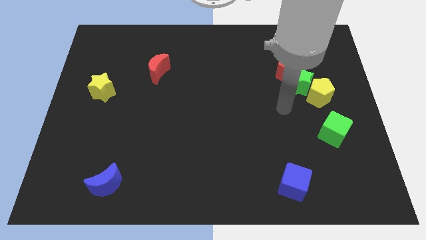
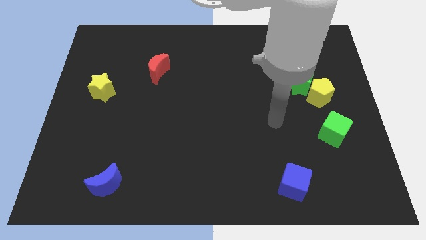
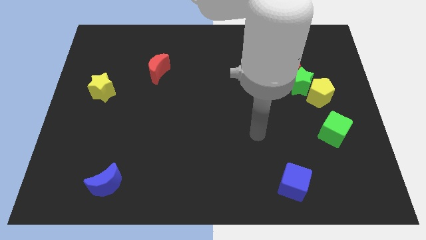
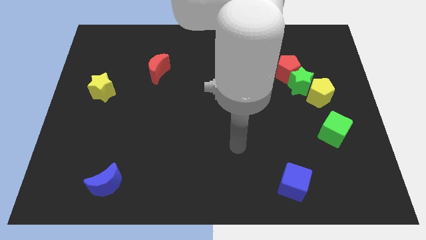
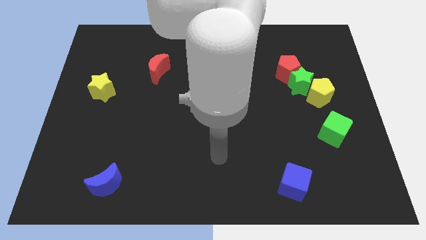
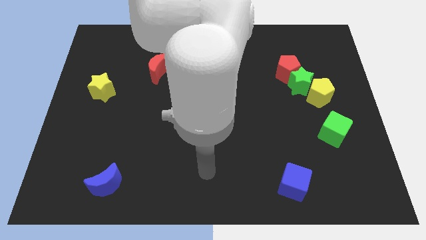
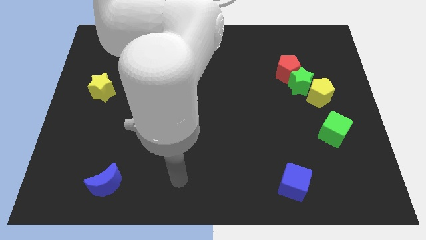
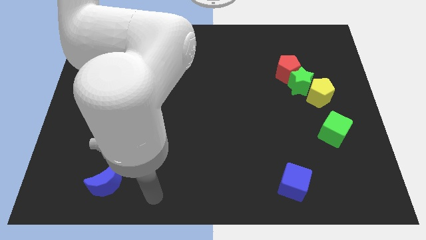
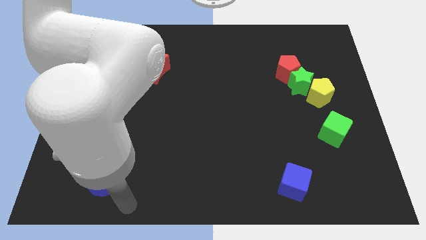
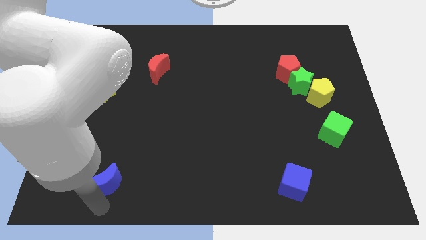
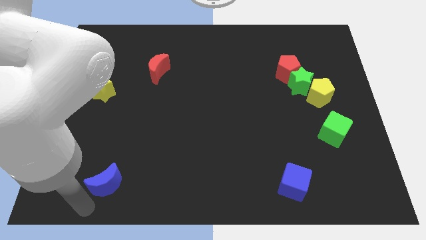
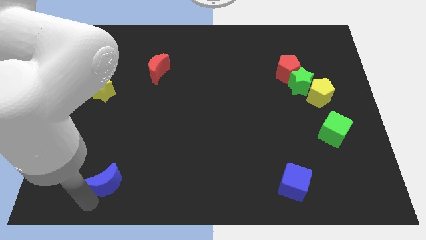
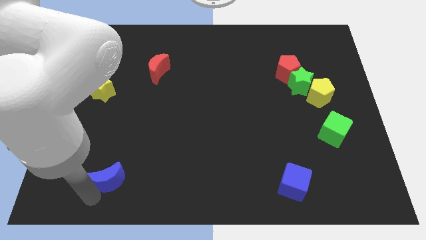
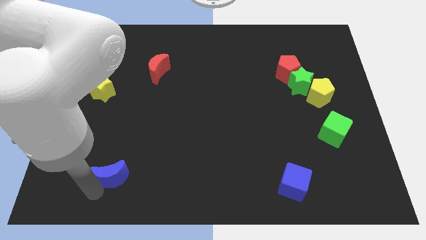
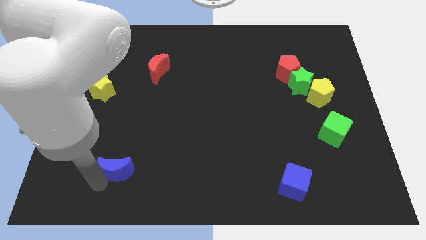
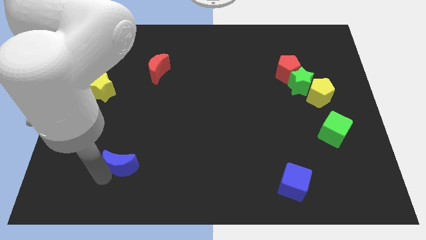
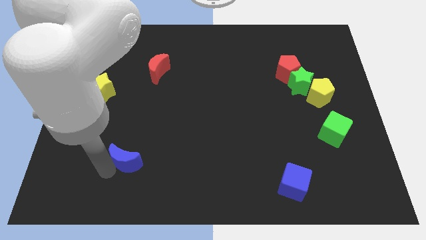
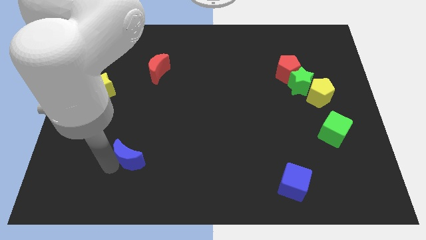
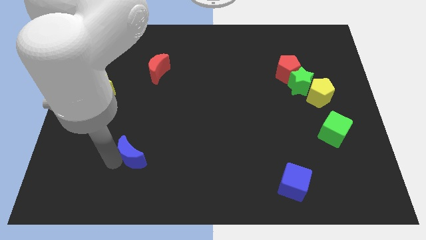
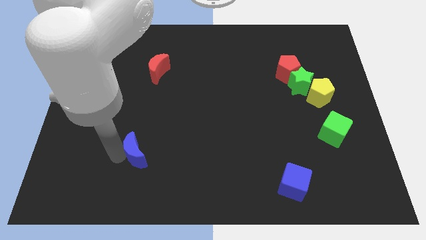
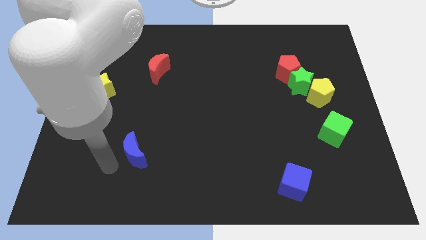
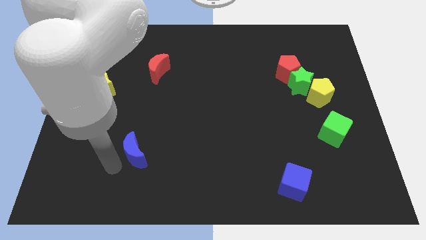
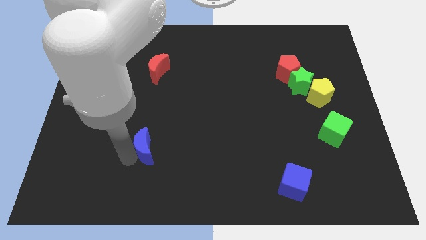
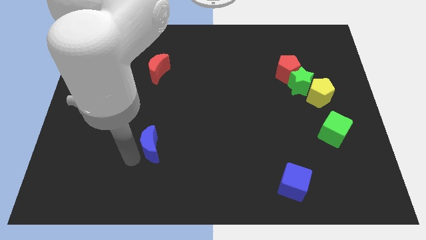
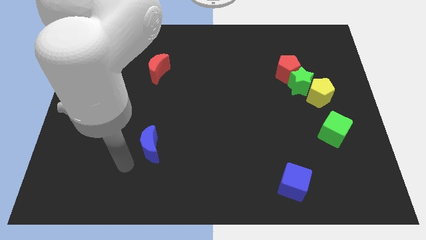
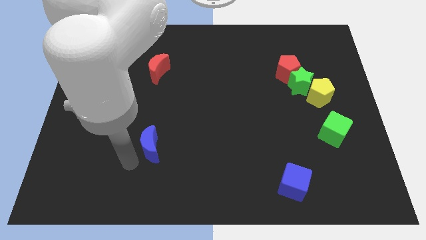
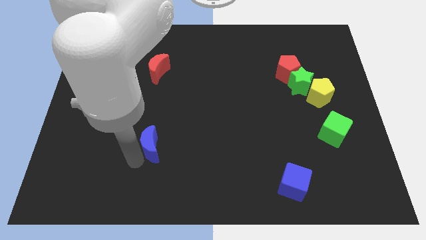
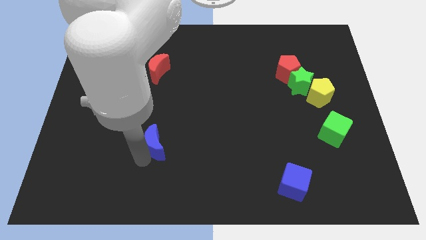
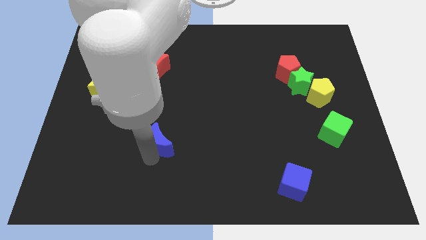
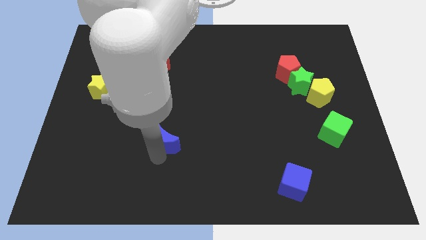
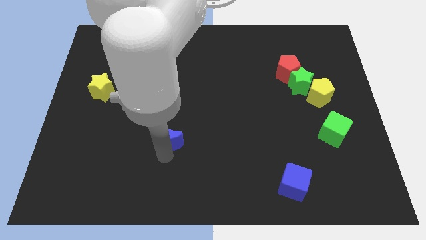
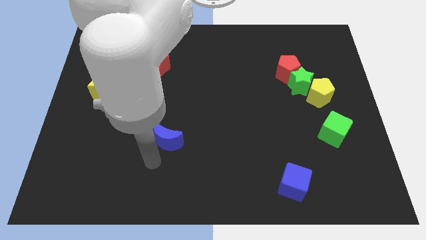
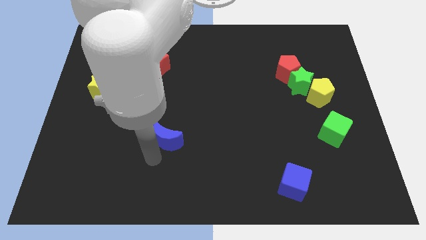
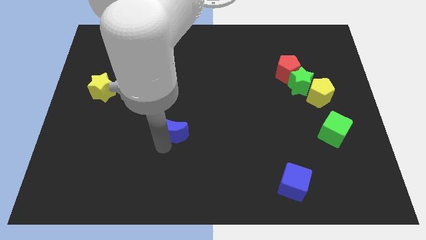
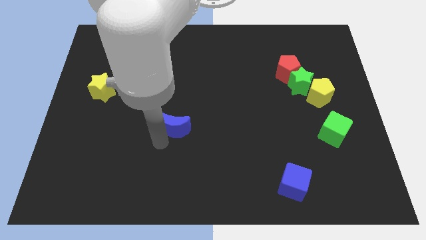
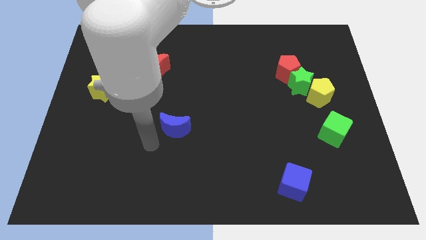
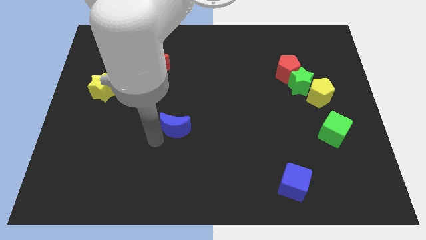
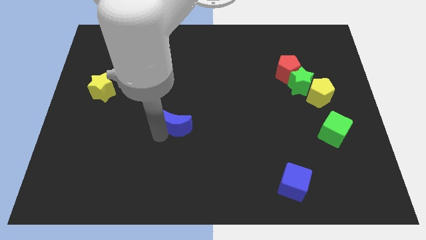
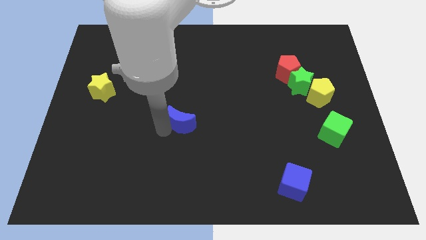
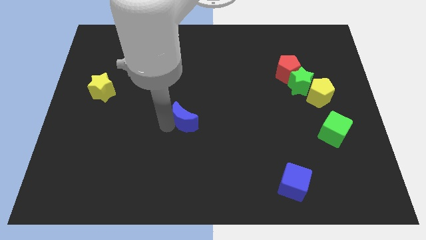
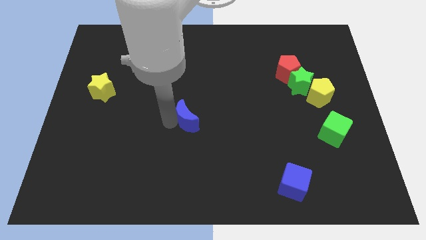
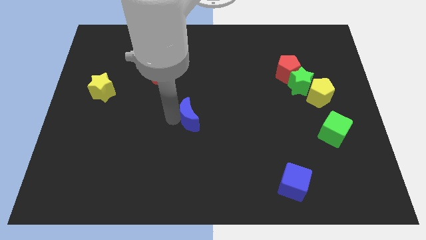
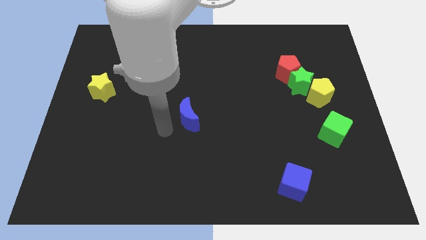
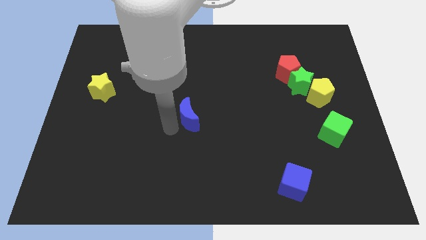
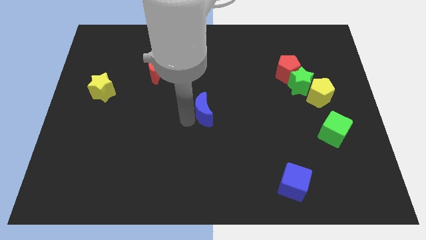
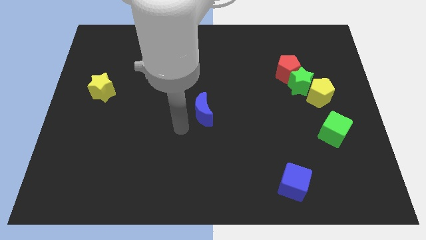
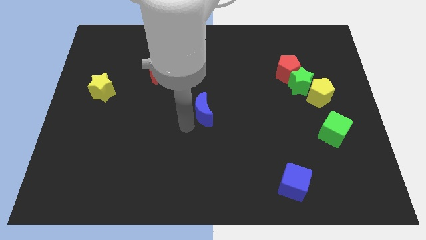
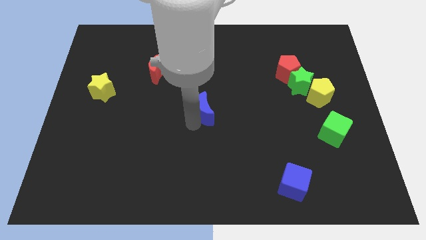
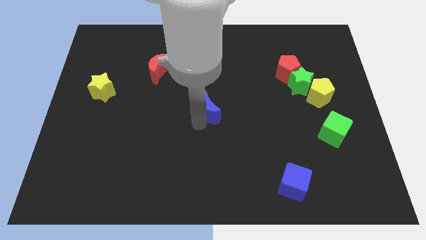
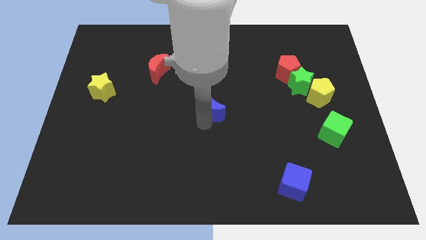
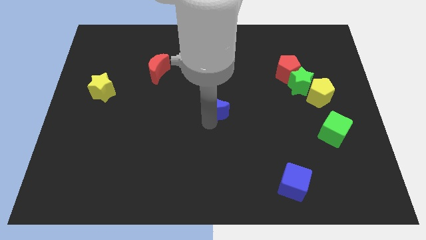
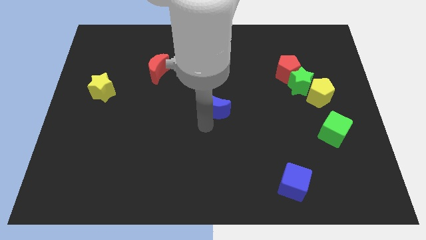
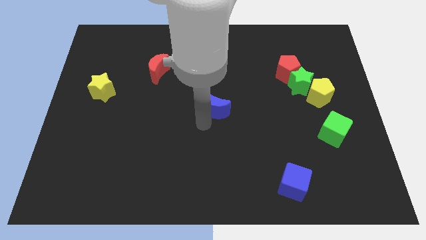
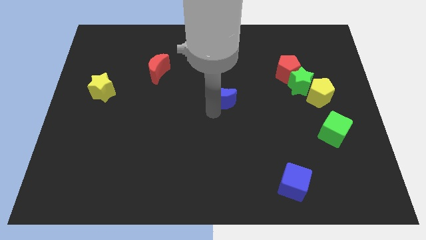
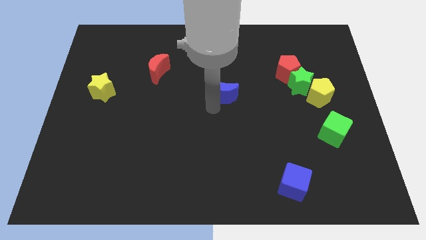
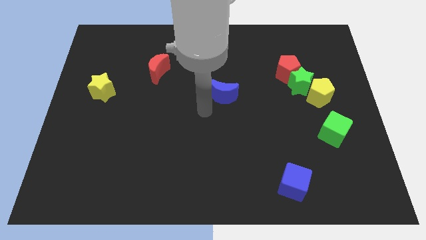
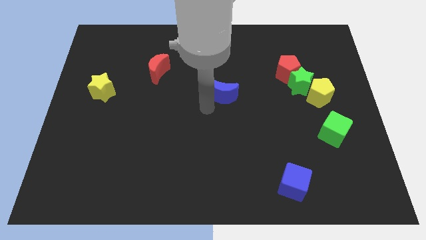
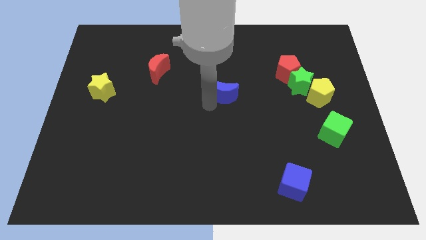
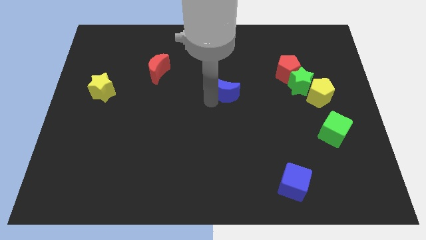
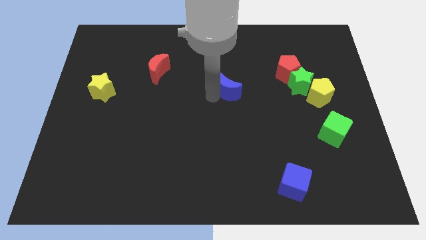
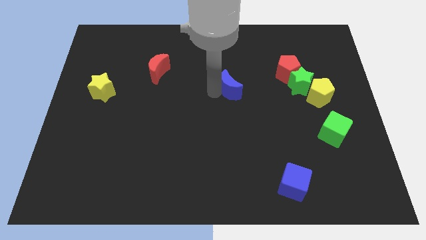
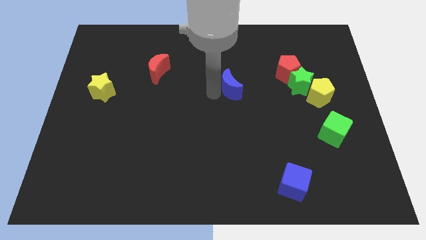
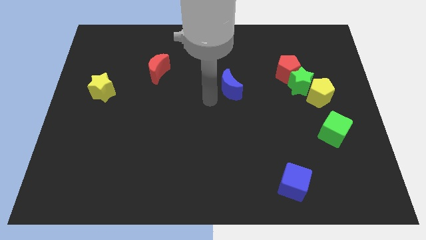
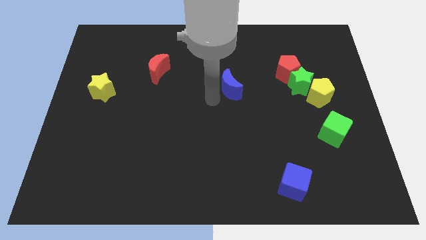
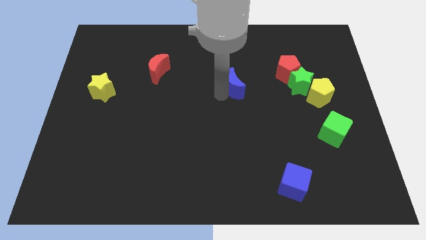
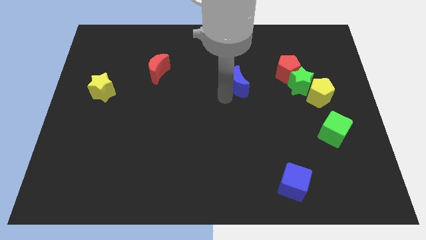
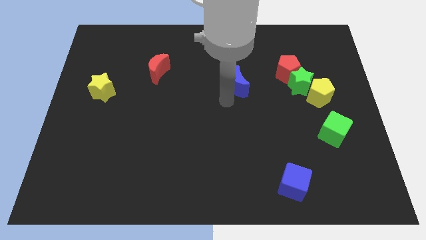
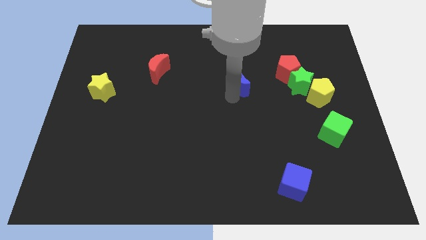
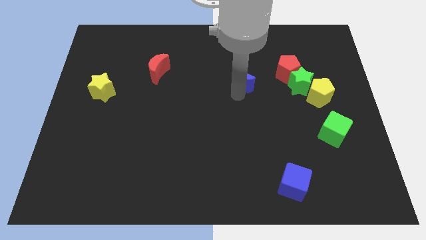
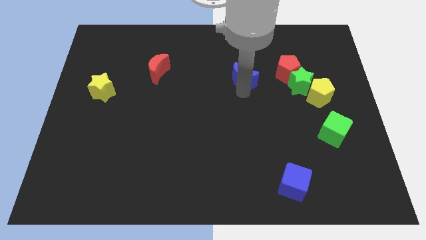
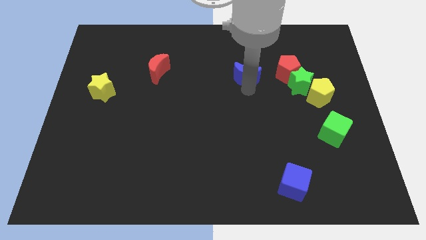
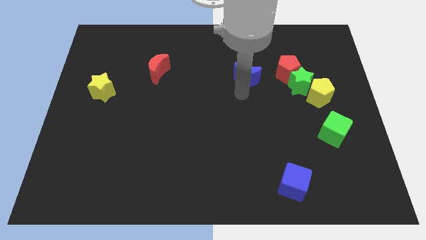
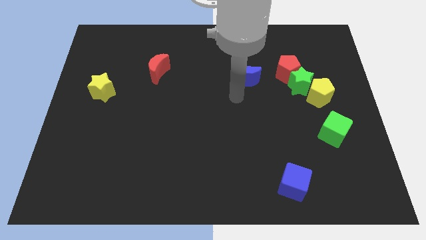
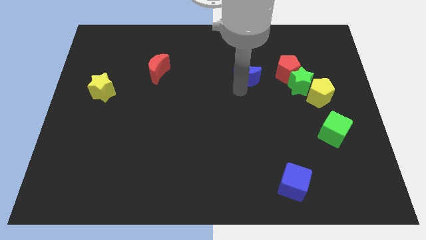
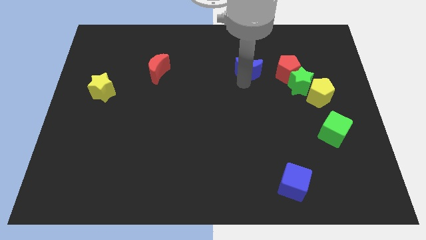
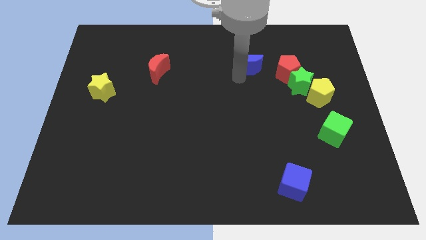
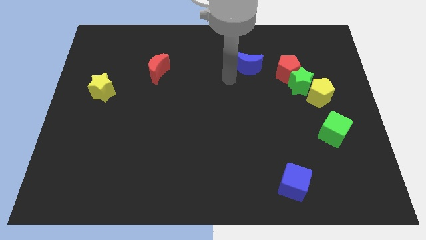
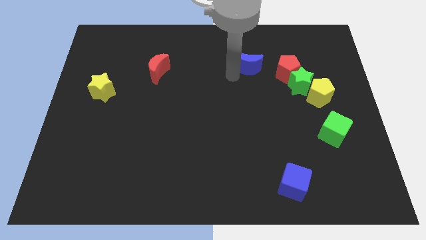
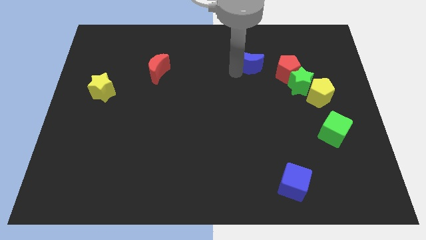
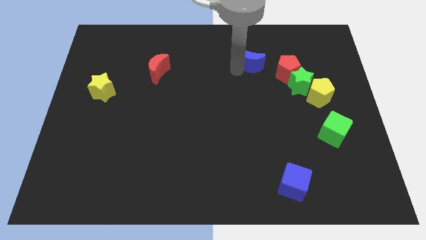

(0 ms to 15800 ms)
slide the blue moon to the top left side of the red pentagon
